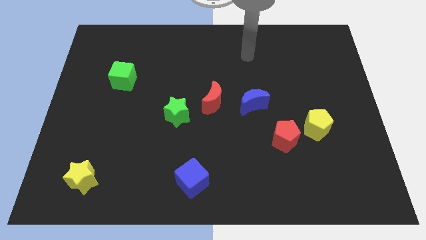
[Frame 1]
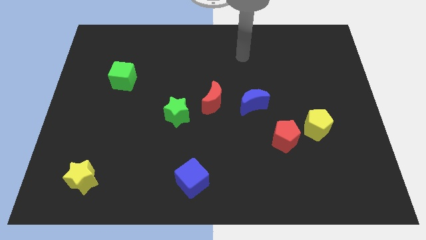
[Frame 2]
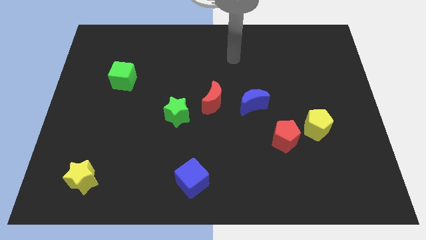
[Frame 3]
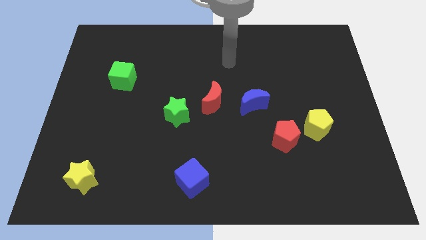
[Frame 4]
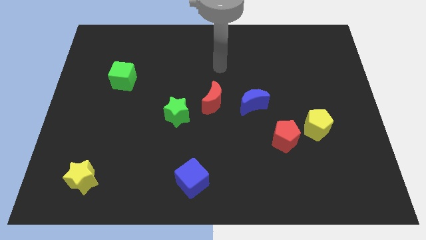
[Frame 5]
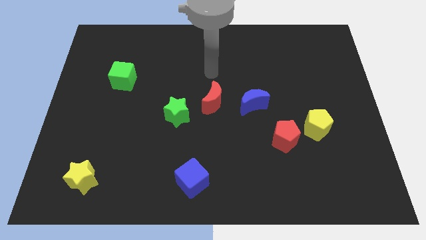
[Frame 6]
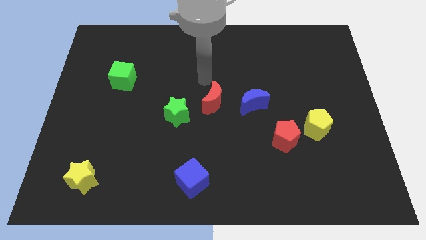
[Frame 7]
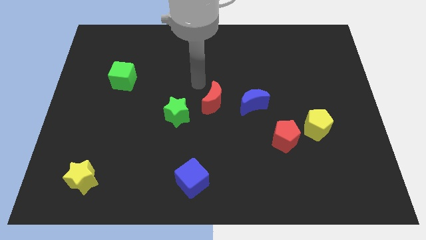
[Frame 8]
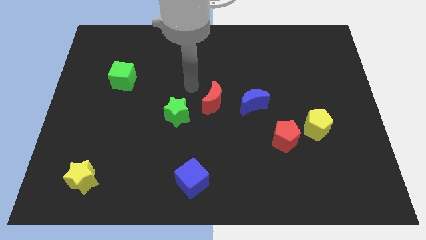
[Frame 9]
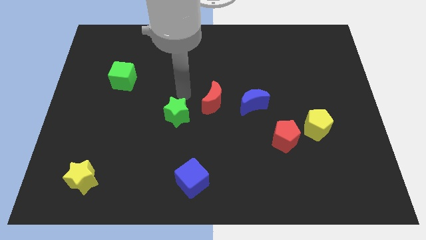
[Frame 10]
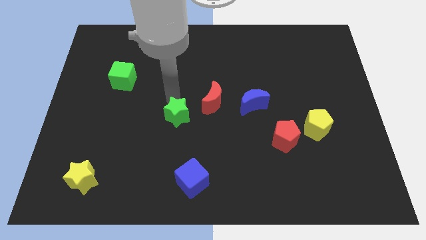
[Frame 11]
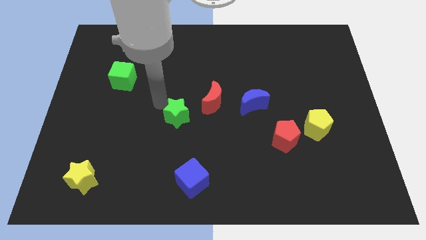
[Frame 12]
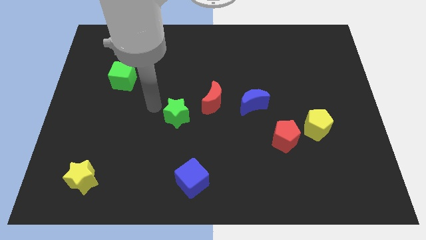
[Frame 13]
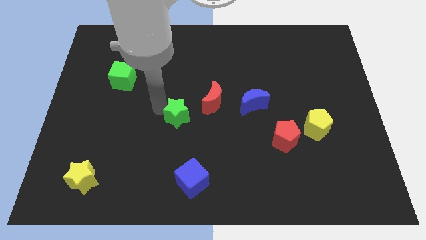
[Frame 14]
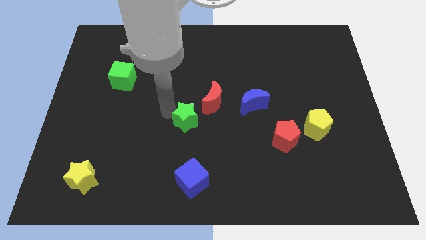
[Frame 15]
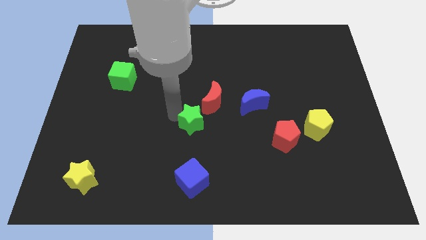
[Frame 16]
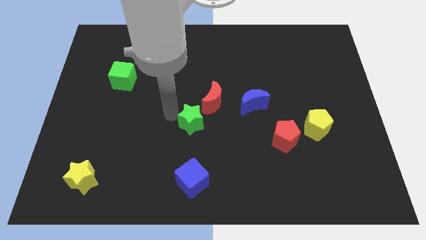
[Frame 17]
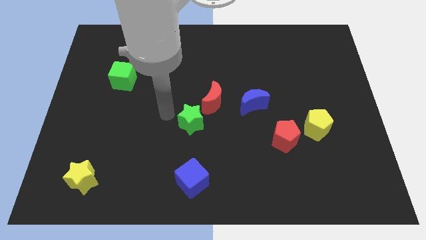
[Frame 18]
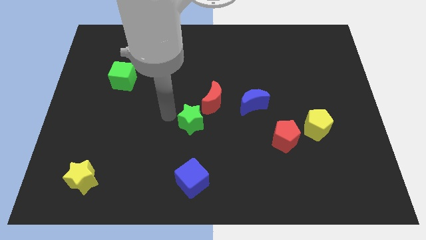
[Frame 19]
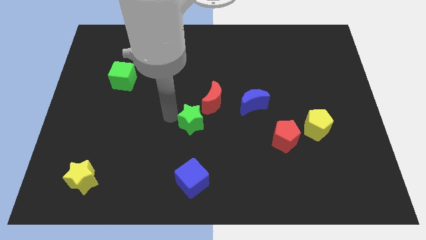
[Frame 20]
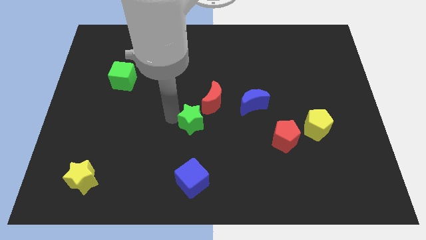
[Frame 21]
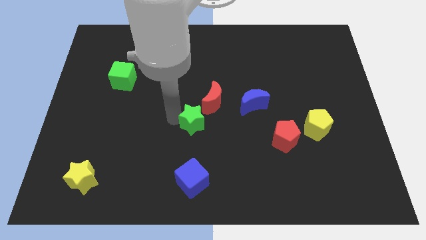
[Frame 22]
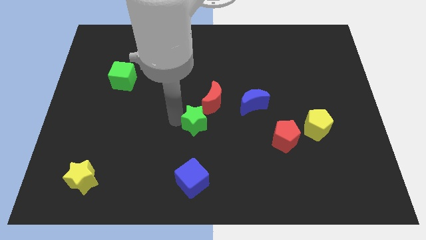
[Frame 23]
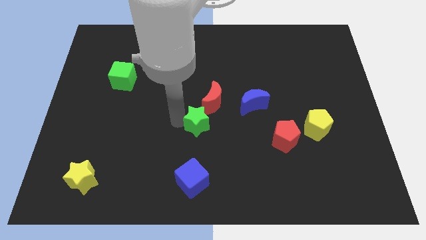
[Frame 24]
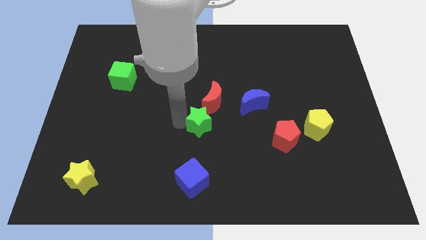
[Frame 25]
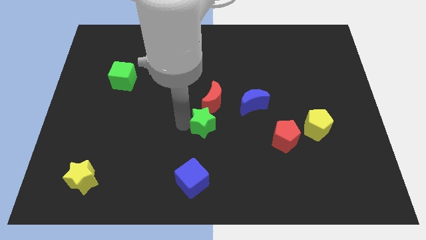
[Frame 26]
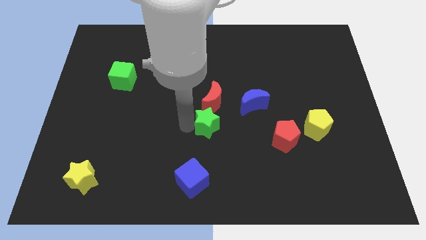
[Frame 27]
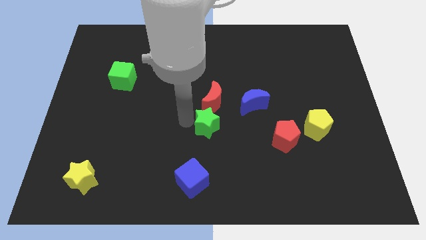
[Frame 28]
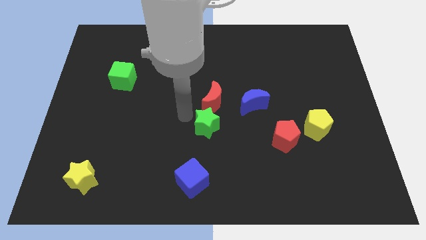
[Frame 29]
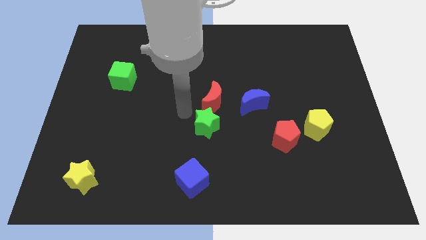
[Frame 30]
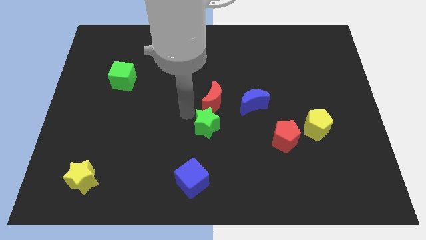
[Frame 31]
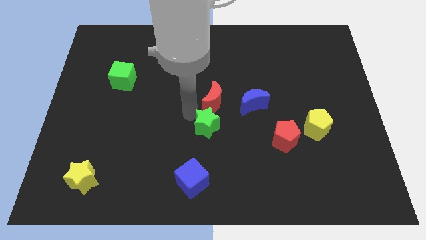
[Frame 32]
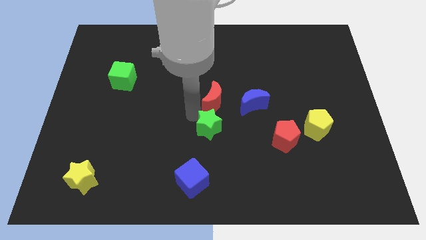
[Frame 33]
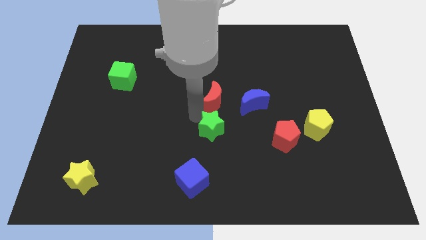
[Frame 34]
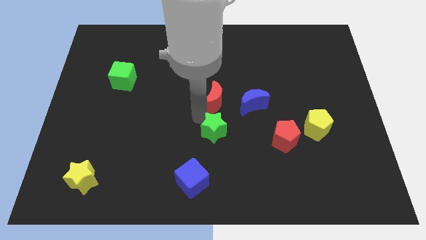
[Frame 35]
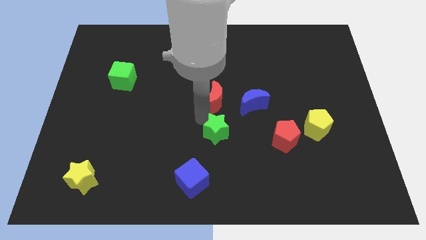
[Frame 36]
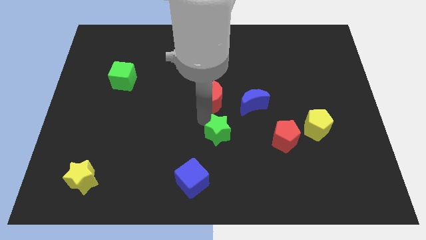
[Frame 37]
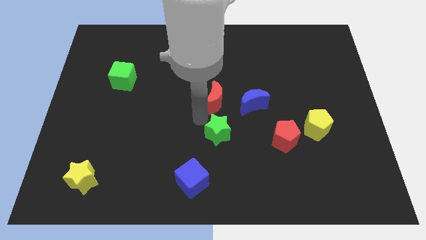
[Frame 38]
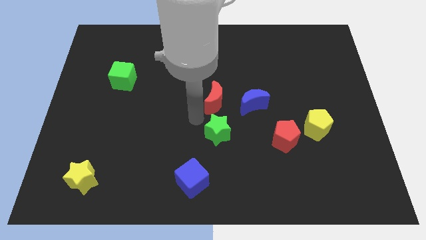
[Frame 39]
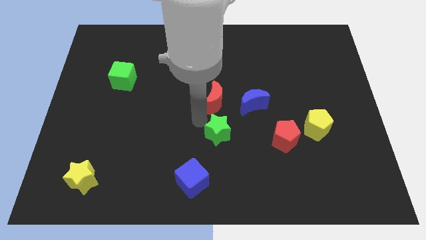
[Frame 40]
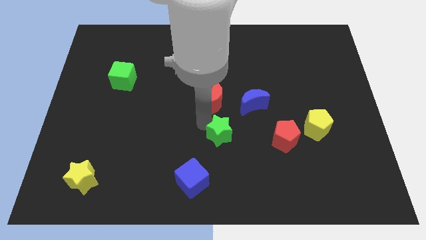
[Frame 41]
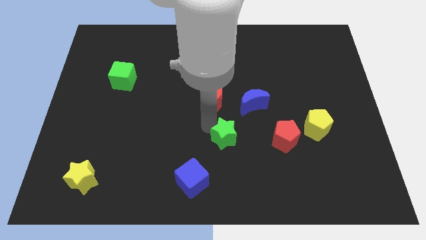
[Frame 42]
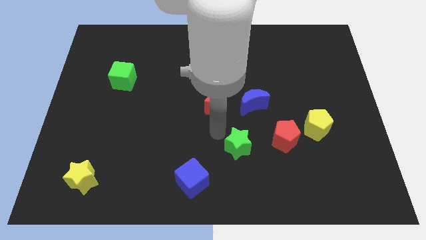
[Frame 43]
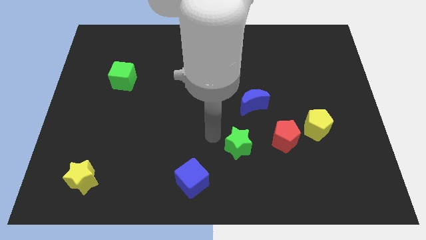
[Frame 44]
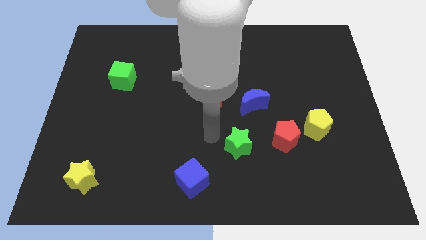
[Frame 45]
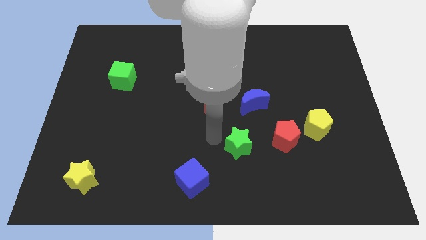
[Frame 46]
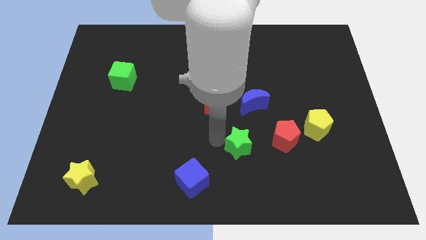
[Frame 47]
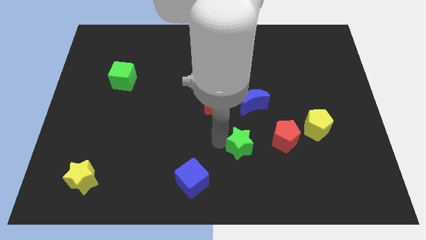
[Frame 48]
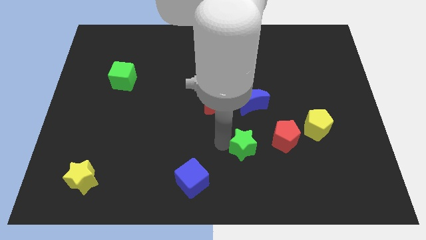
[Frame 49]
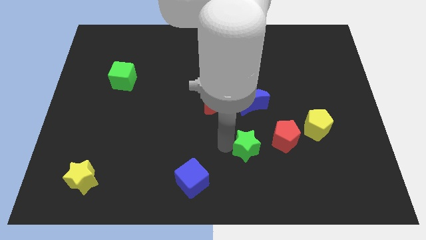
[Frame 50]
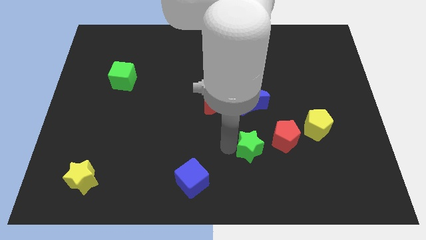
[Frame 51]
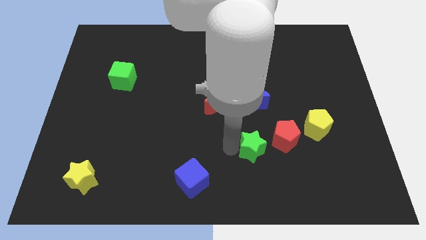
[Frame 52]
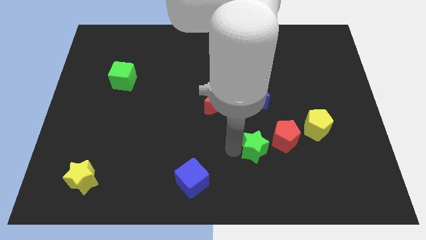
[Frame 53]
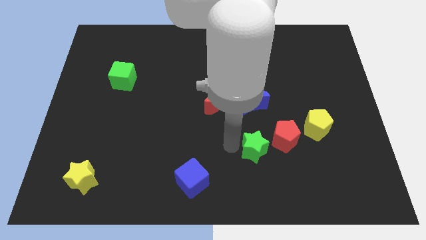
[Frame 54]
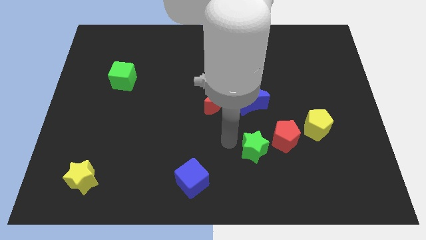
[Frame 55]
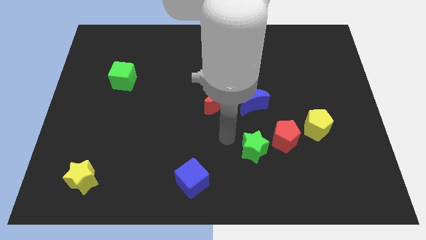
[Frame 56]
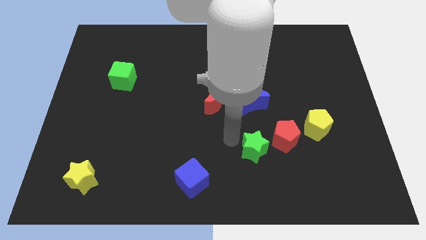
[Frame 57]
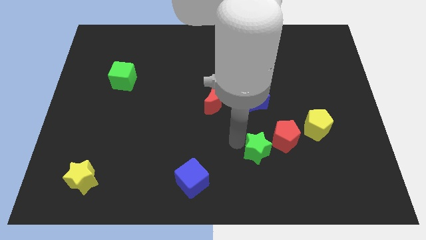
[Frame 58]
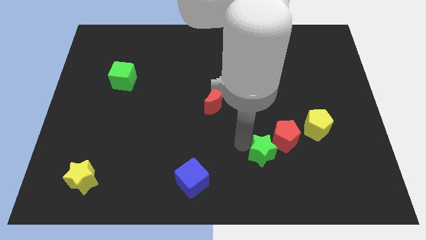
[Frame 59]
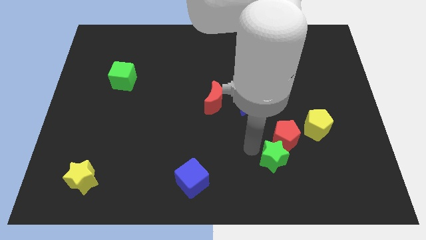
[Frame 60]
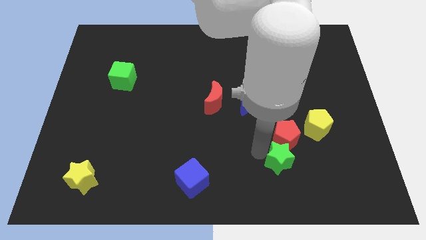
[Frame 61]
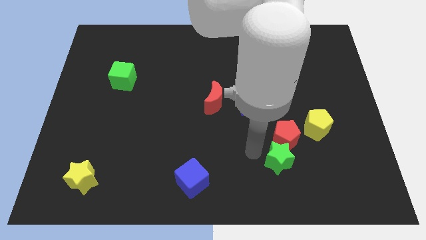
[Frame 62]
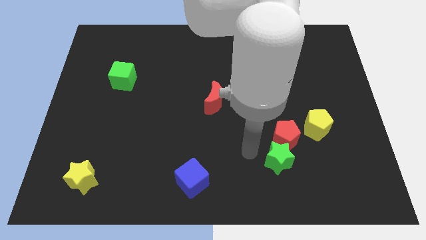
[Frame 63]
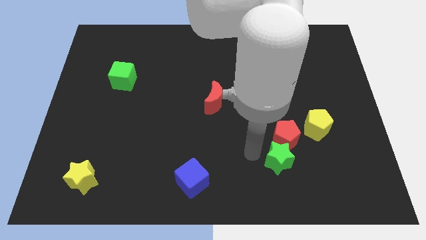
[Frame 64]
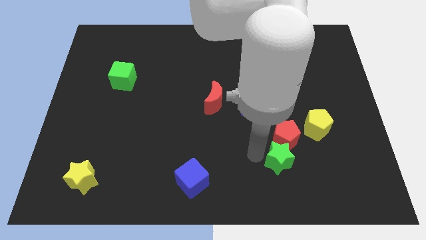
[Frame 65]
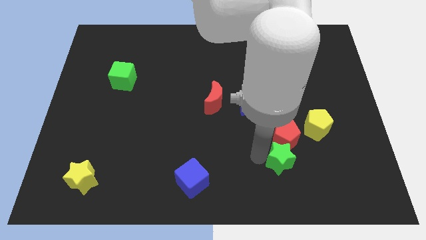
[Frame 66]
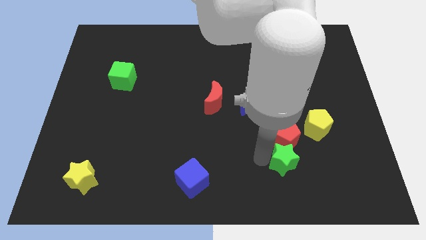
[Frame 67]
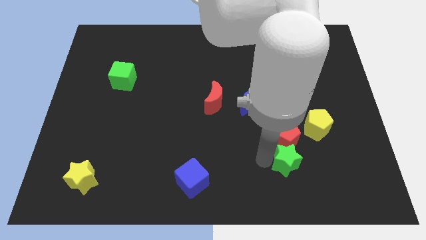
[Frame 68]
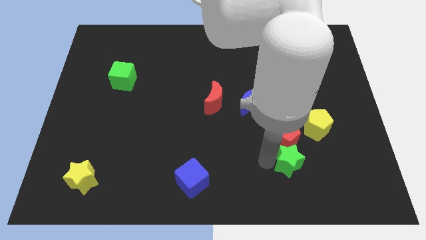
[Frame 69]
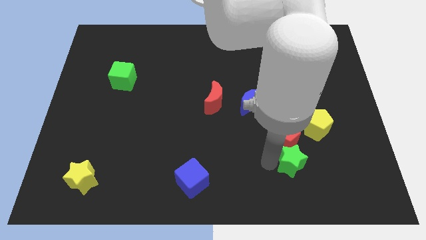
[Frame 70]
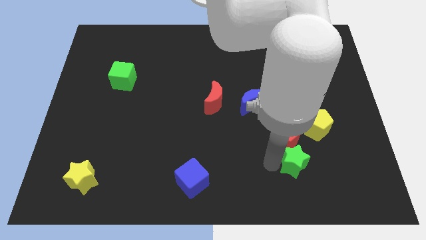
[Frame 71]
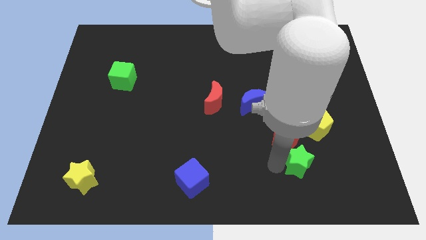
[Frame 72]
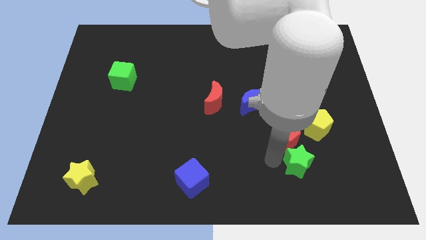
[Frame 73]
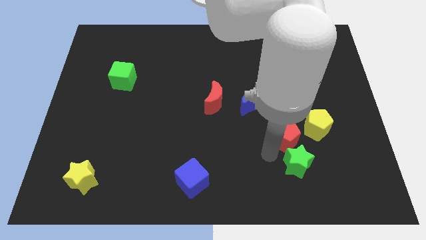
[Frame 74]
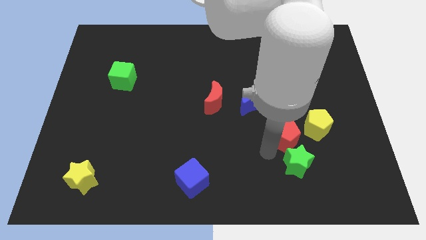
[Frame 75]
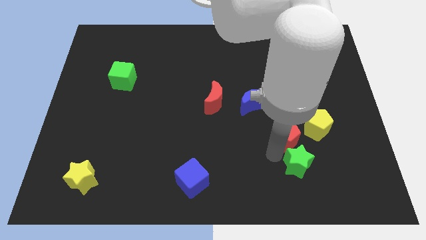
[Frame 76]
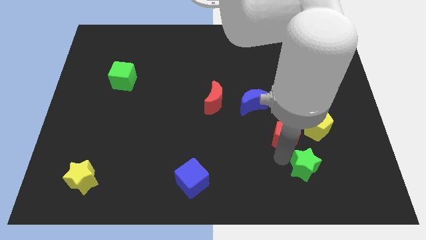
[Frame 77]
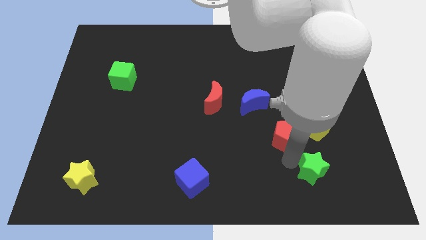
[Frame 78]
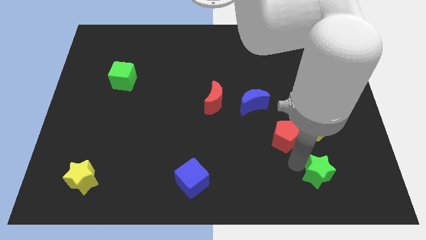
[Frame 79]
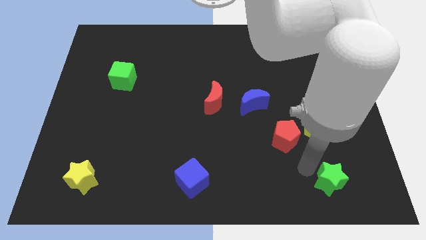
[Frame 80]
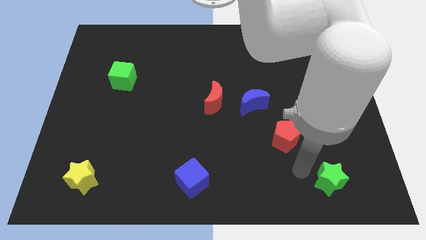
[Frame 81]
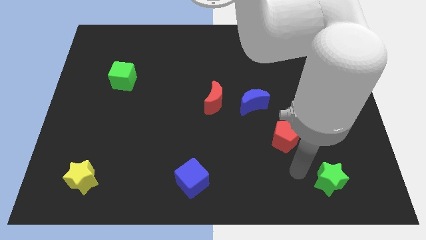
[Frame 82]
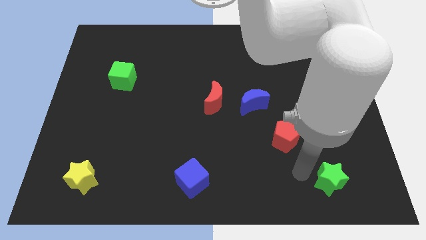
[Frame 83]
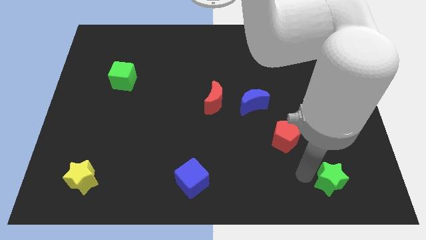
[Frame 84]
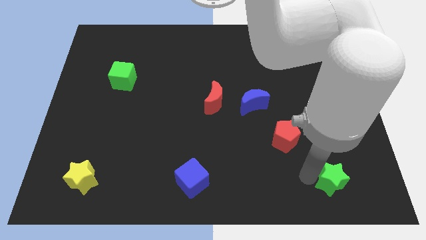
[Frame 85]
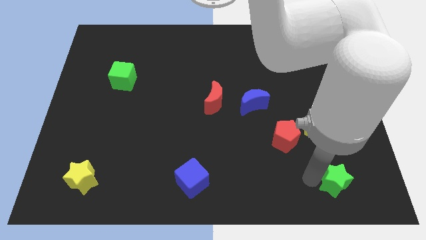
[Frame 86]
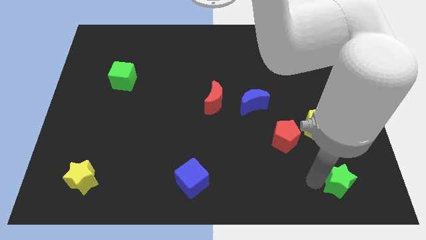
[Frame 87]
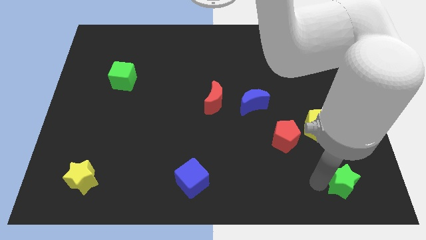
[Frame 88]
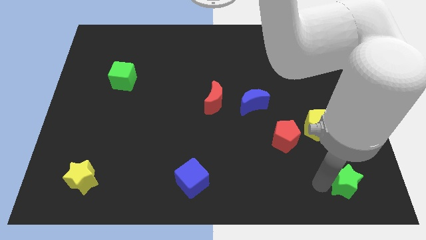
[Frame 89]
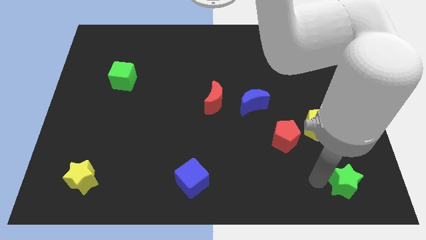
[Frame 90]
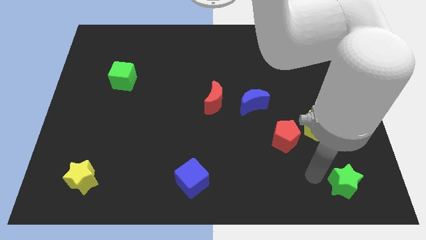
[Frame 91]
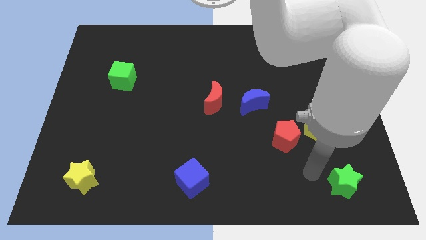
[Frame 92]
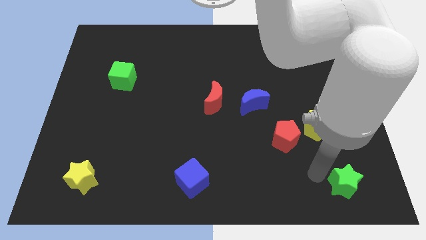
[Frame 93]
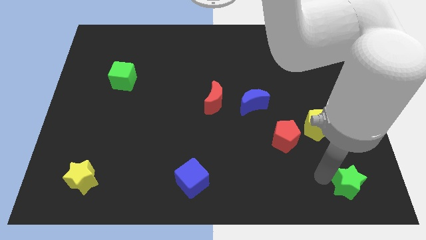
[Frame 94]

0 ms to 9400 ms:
push the green star to the bottom right corner
